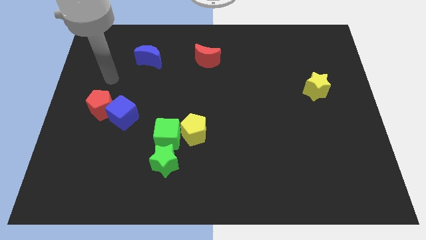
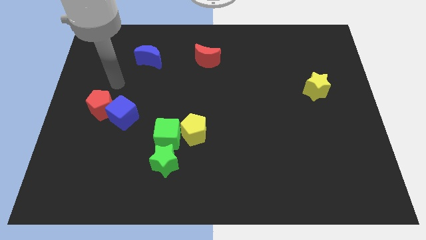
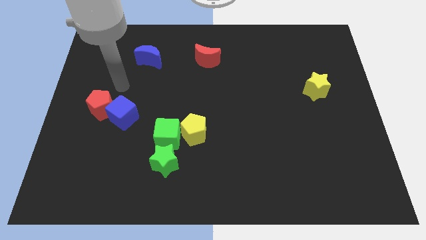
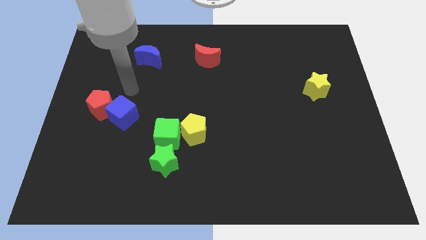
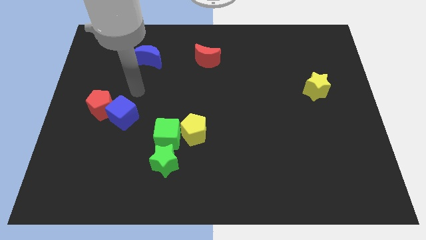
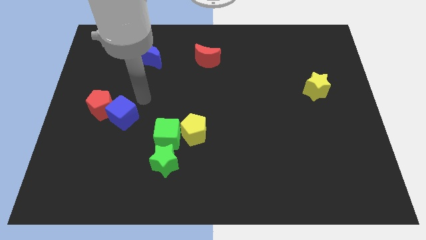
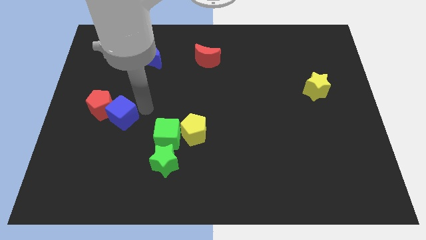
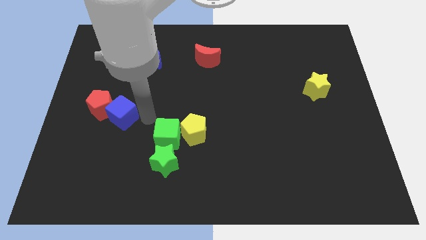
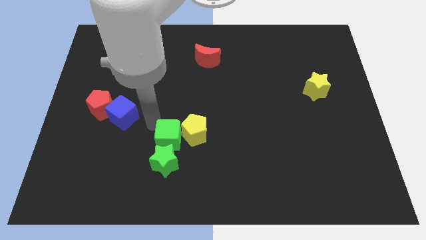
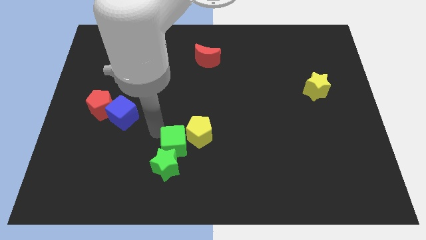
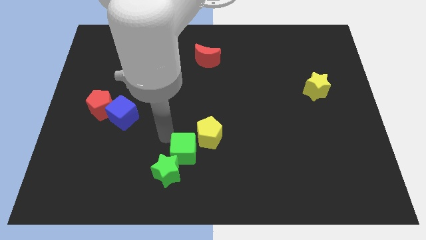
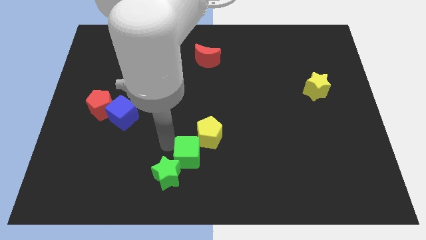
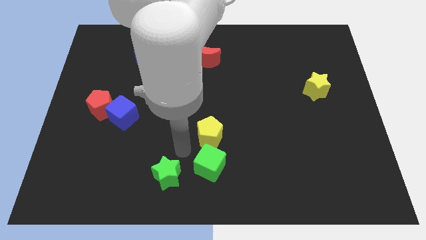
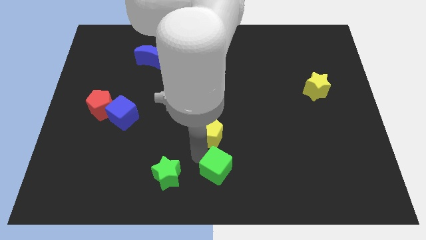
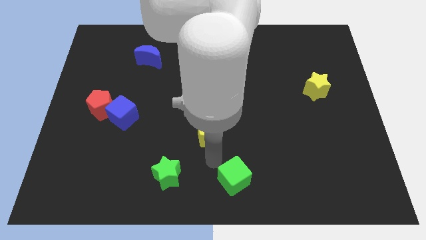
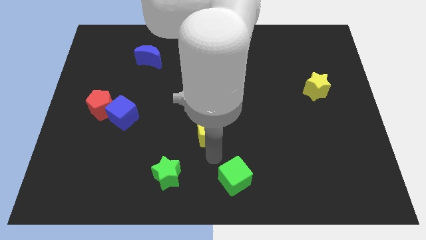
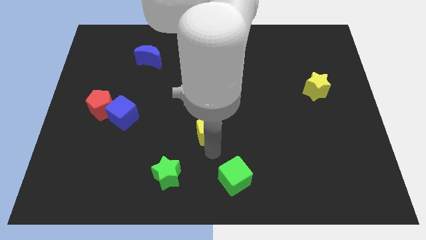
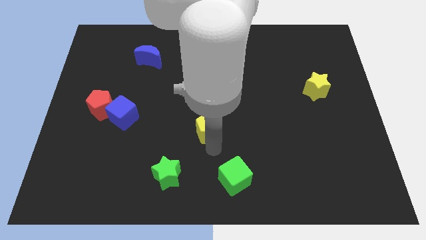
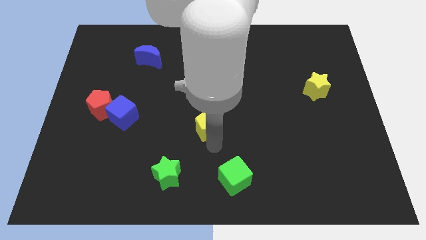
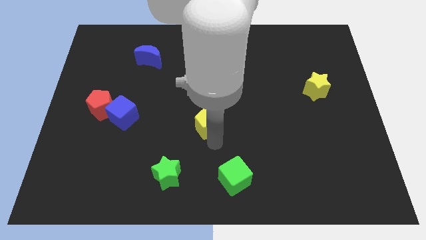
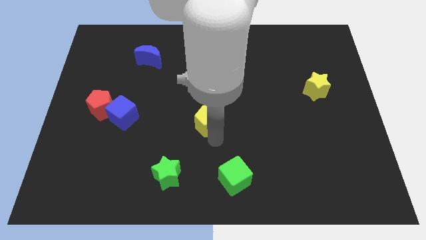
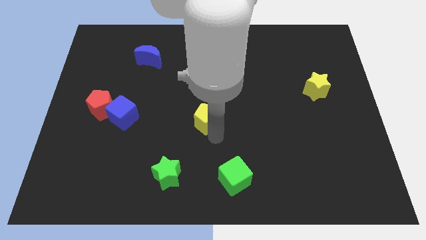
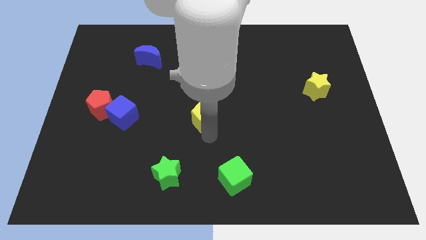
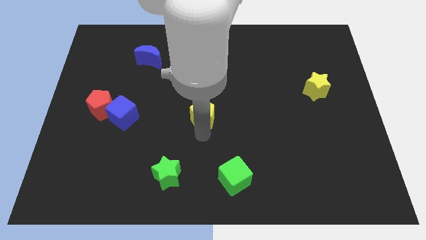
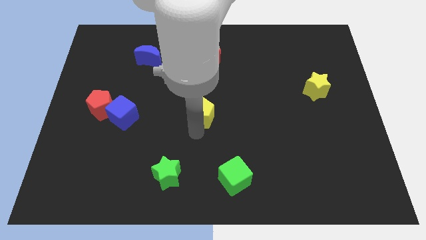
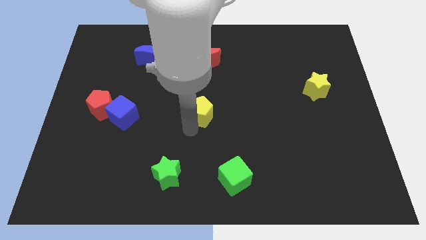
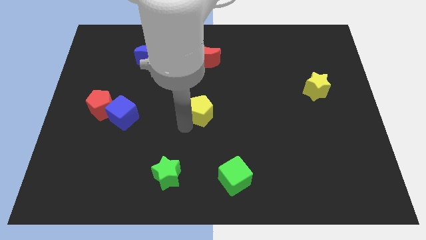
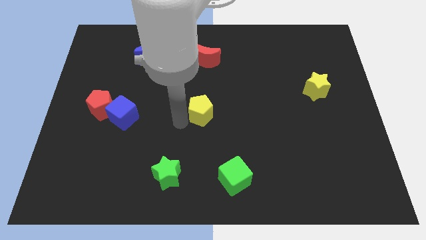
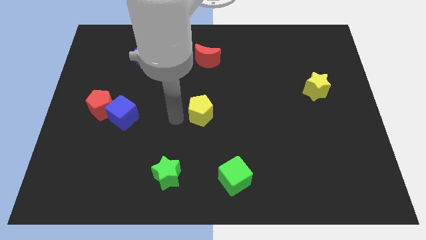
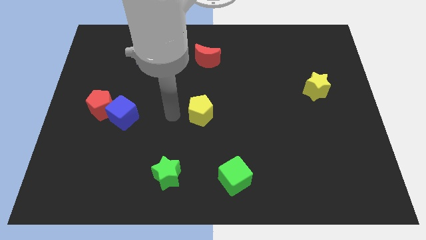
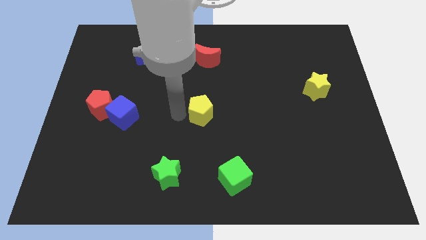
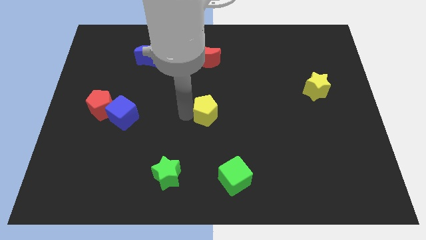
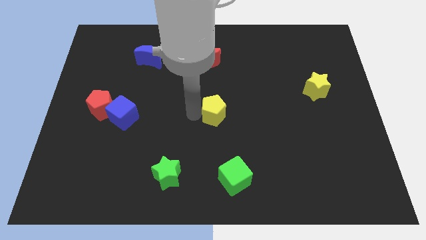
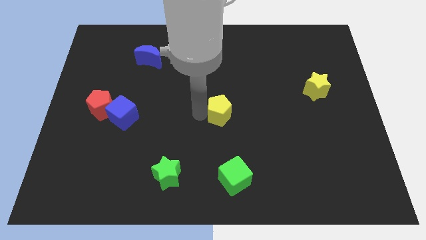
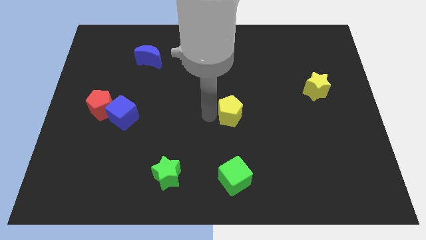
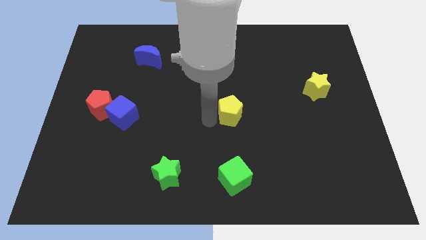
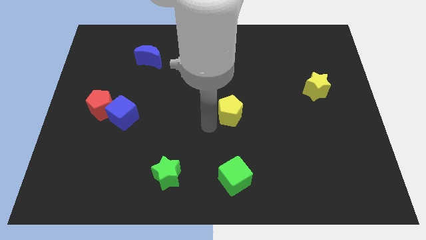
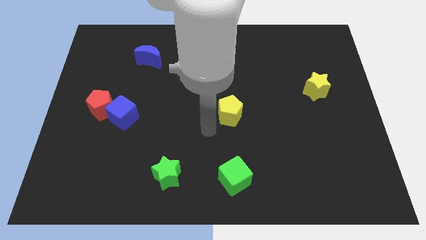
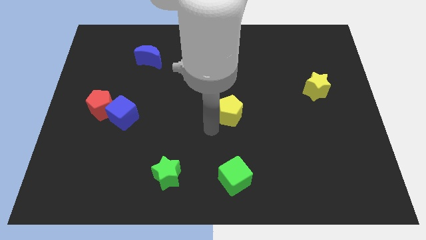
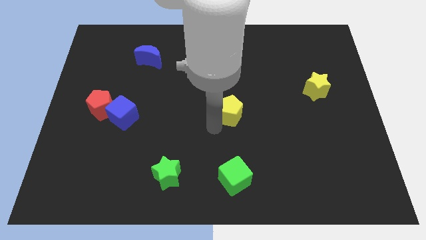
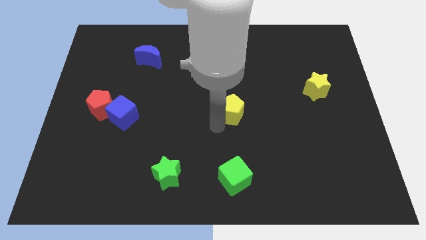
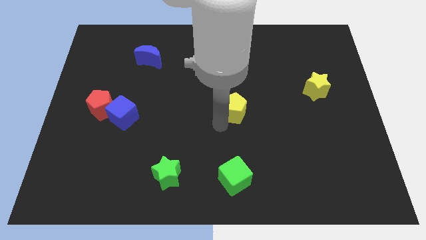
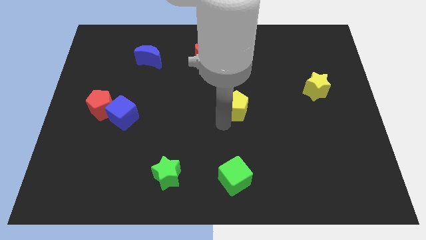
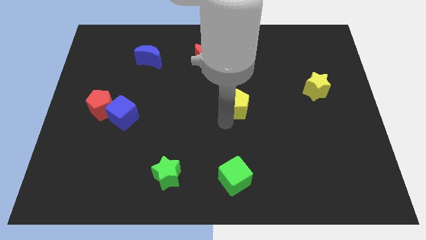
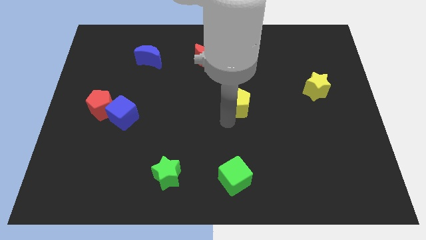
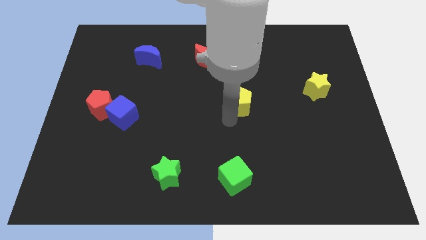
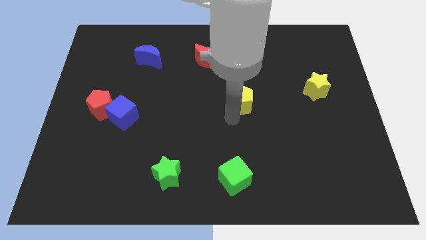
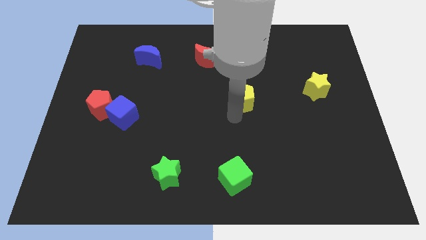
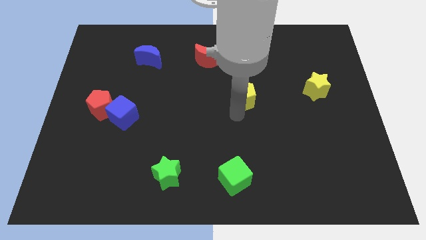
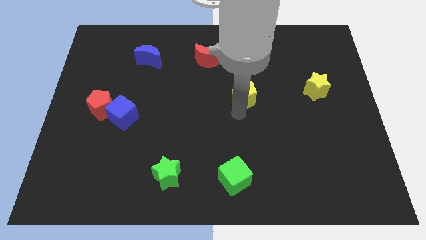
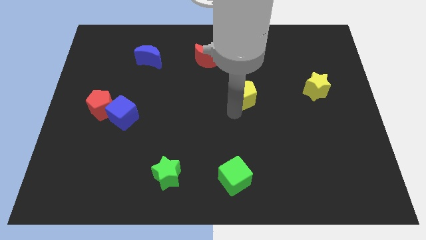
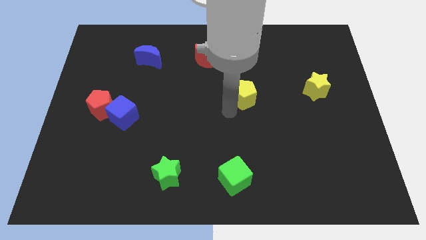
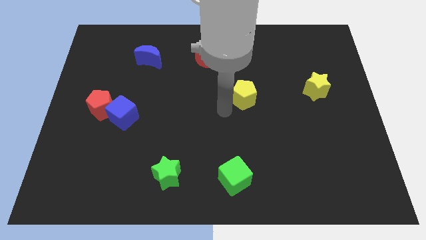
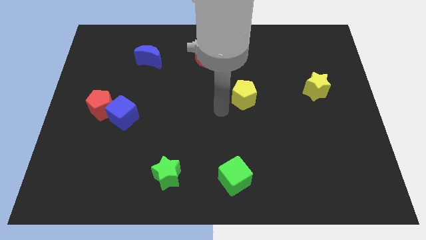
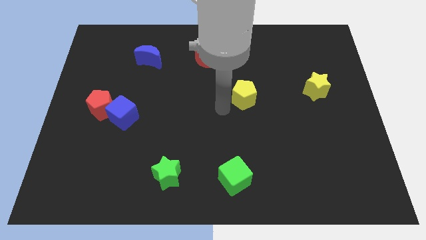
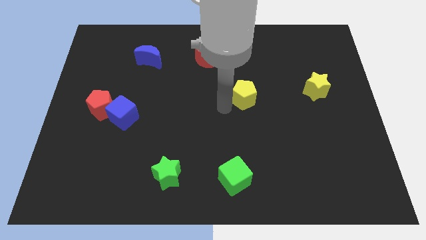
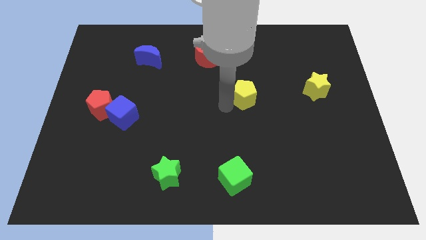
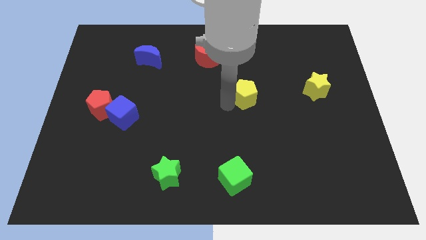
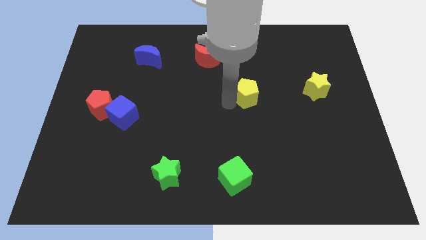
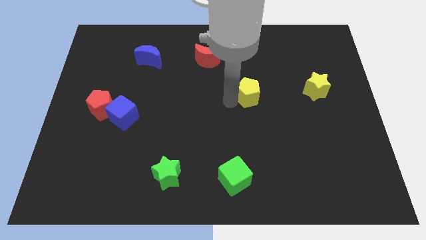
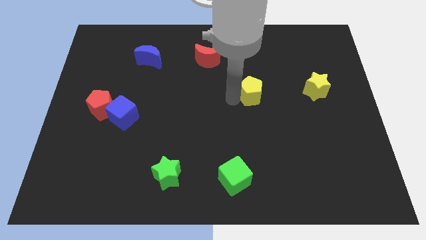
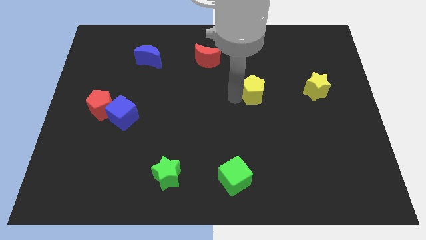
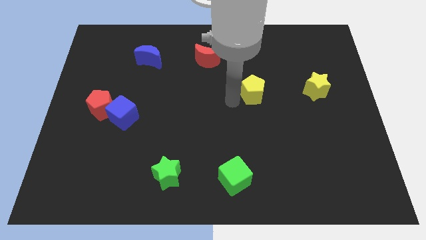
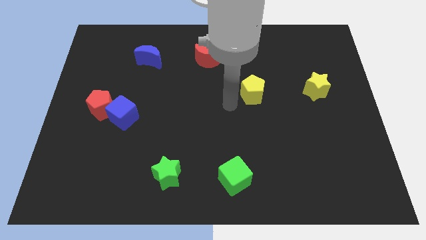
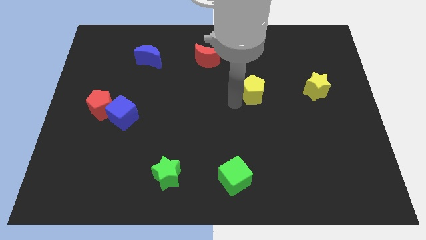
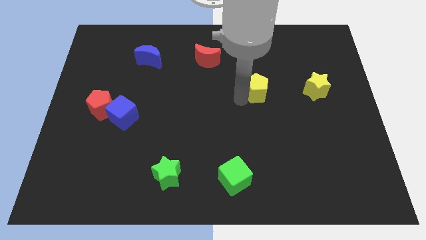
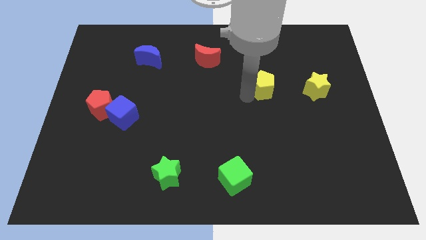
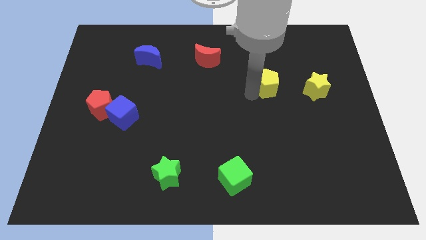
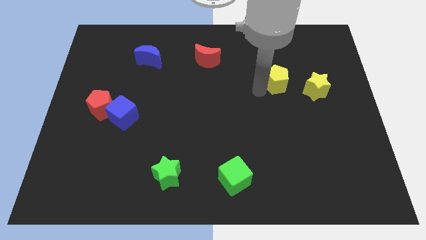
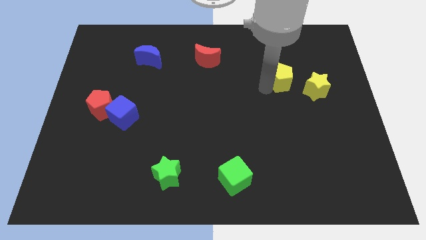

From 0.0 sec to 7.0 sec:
push the yellow pentagon diagonally up and to the left of the yellow star

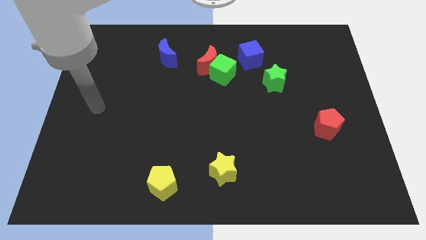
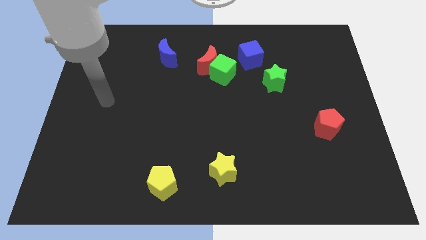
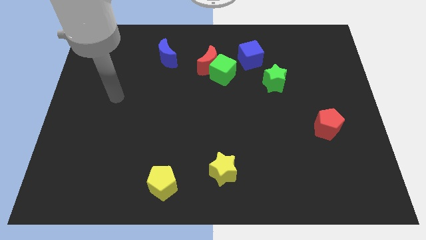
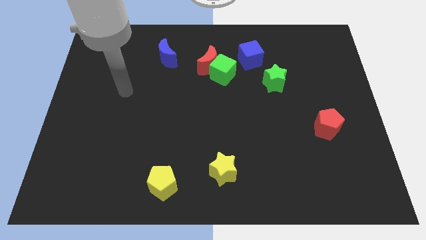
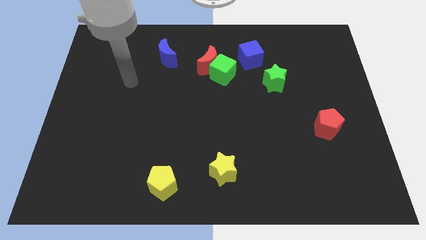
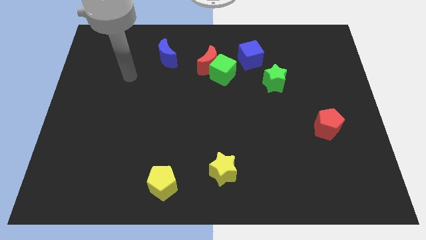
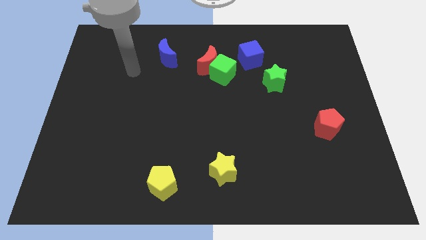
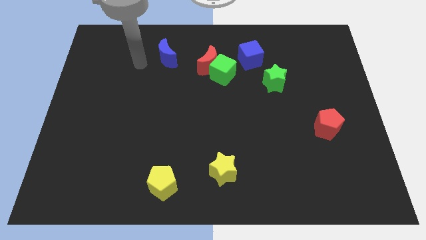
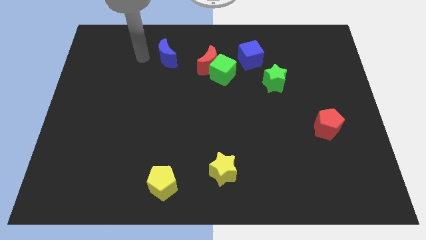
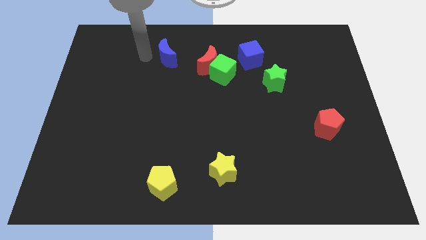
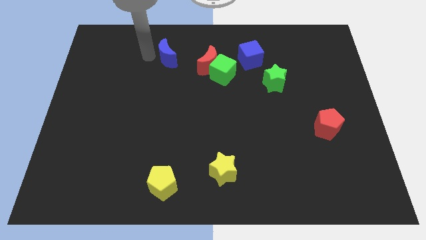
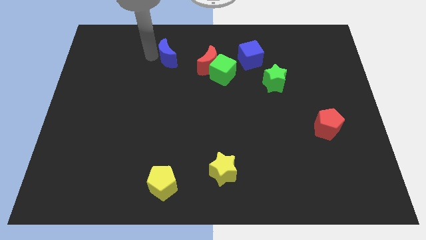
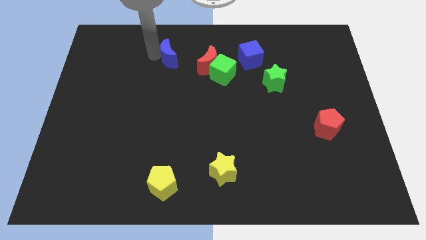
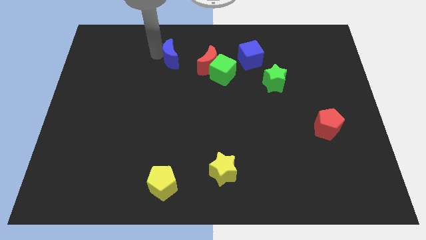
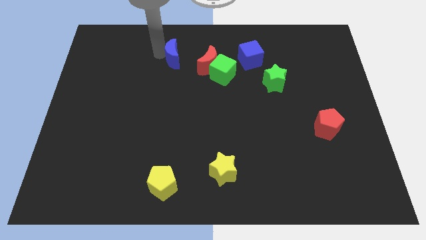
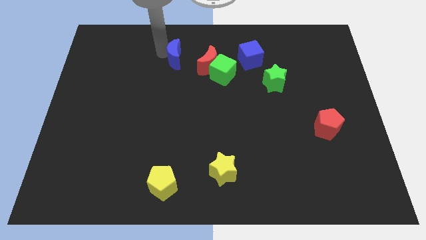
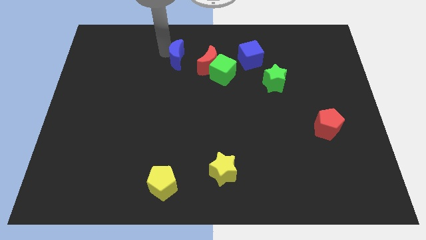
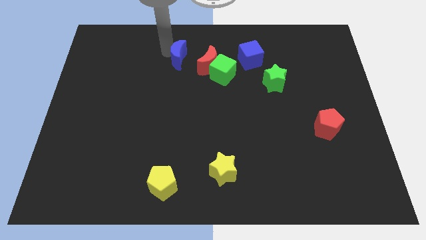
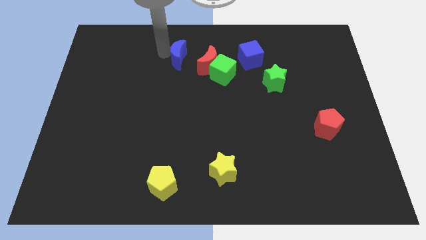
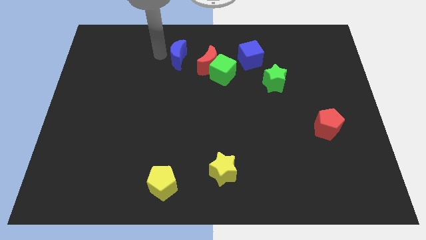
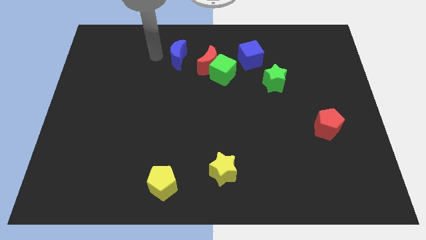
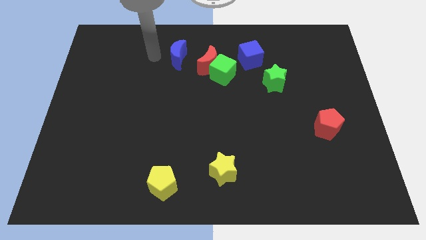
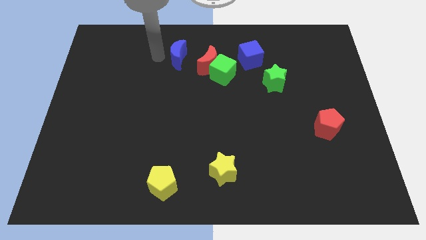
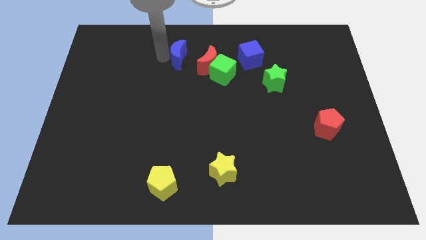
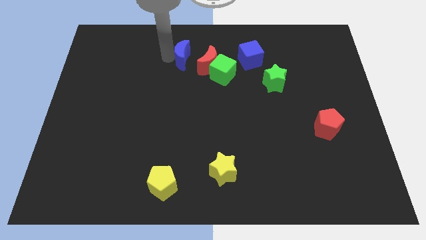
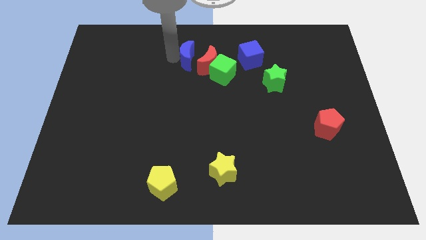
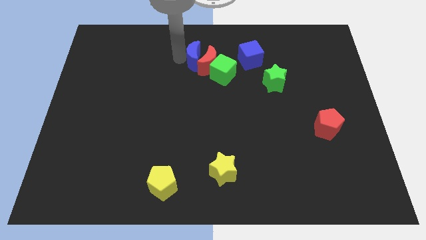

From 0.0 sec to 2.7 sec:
move the blue moon left of the blue cube
